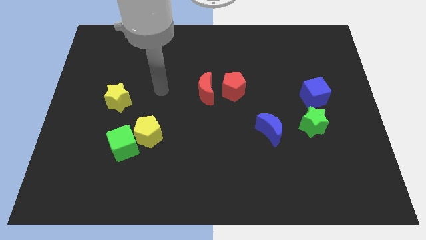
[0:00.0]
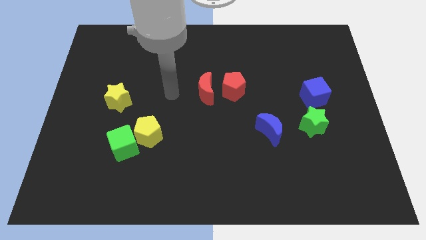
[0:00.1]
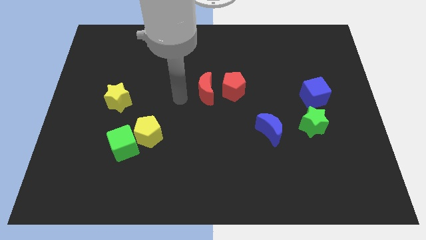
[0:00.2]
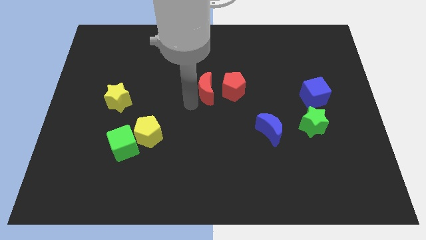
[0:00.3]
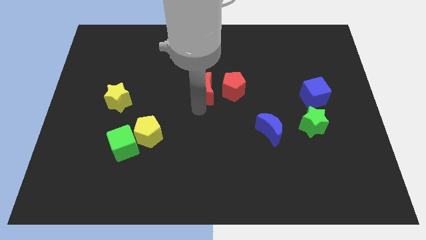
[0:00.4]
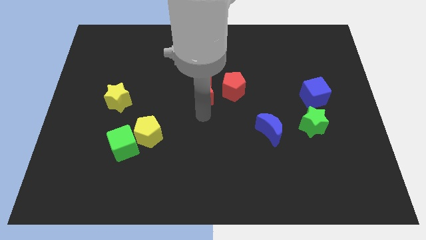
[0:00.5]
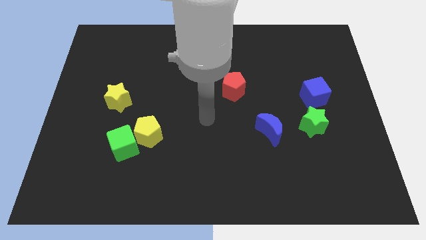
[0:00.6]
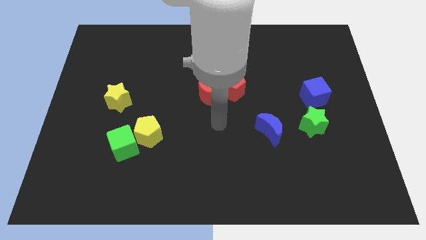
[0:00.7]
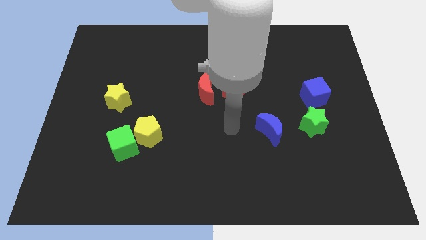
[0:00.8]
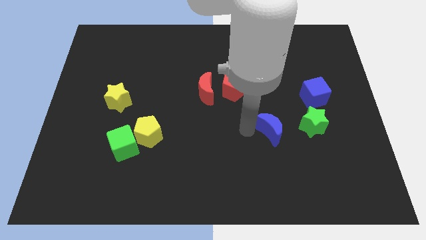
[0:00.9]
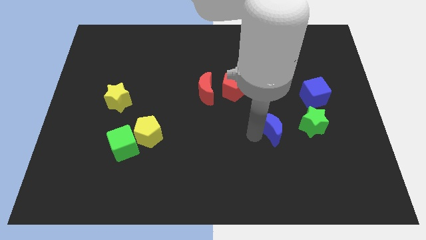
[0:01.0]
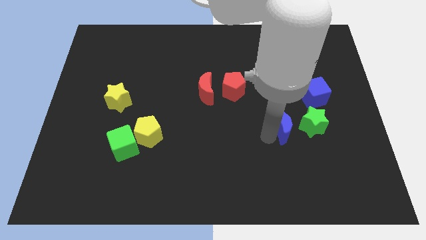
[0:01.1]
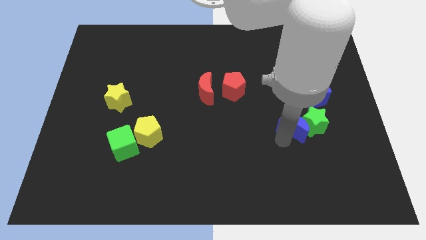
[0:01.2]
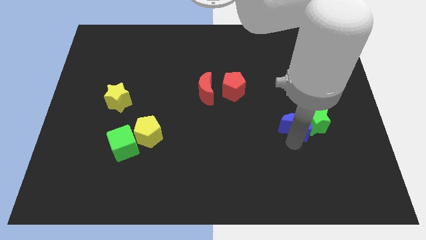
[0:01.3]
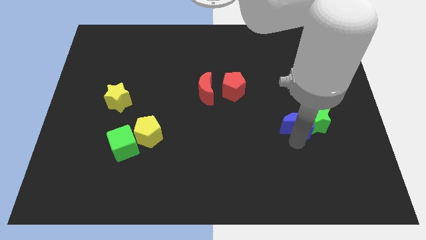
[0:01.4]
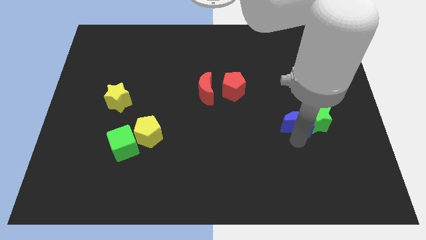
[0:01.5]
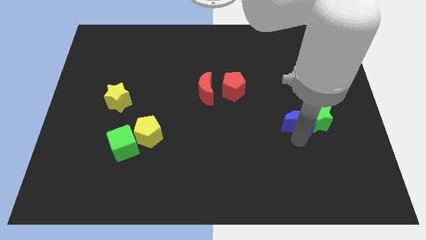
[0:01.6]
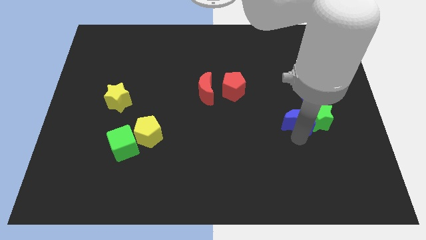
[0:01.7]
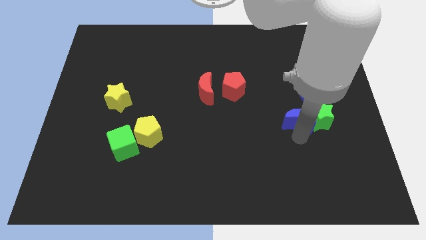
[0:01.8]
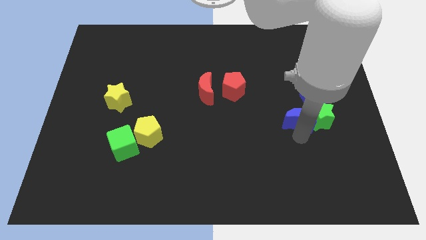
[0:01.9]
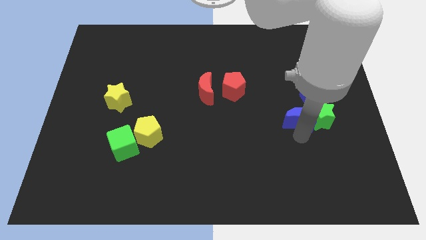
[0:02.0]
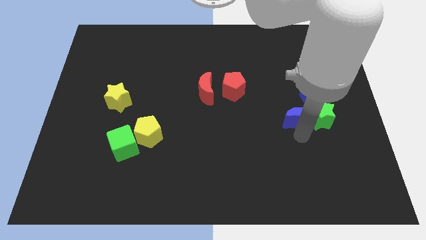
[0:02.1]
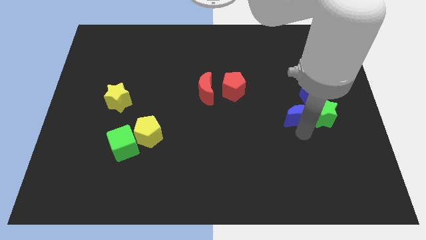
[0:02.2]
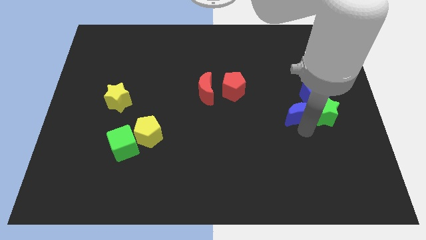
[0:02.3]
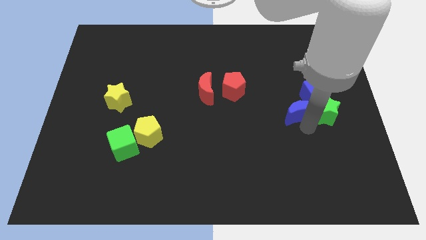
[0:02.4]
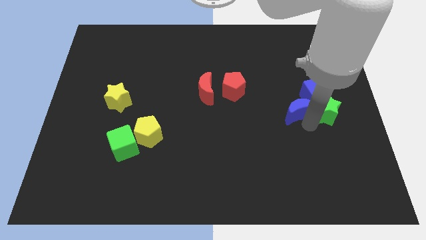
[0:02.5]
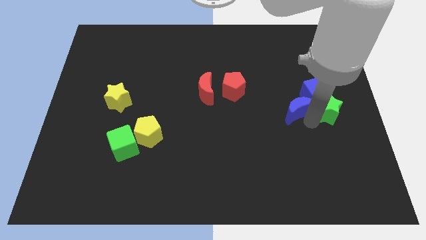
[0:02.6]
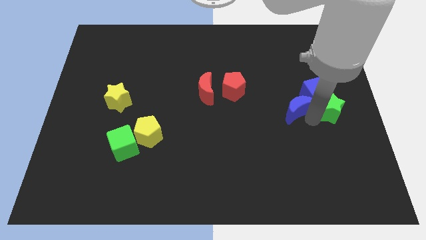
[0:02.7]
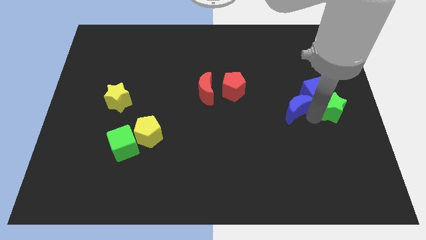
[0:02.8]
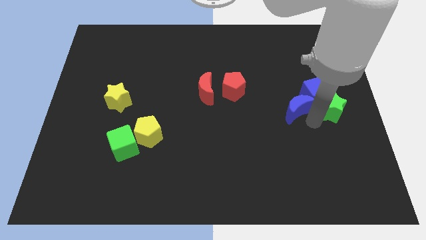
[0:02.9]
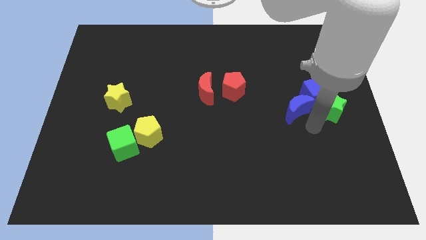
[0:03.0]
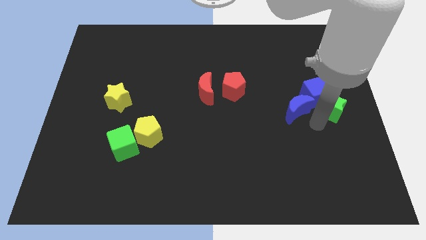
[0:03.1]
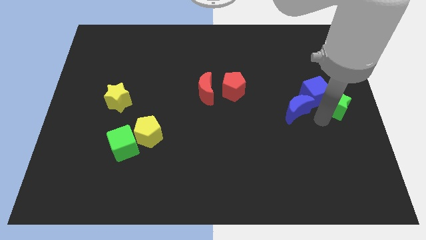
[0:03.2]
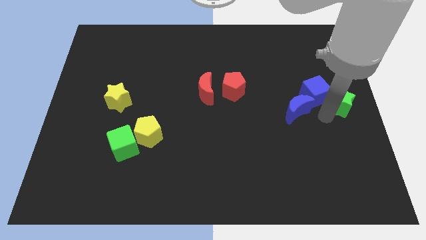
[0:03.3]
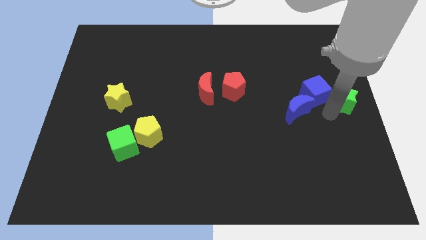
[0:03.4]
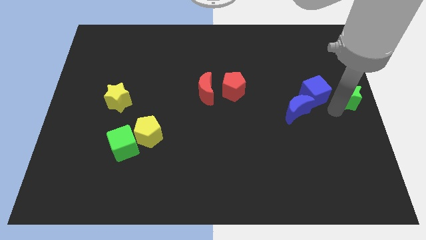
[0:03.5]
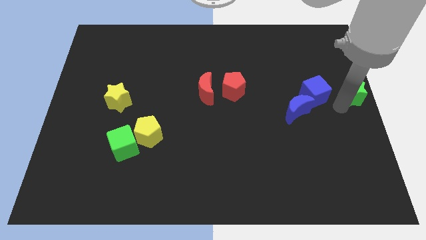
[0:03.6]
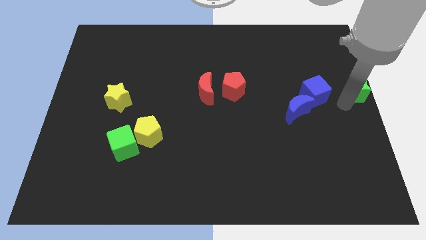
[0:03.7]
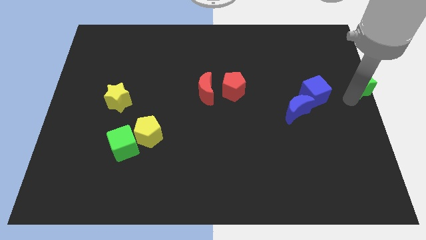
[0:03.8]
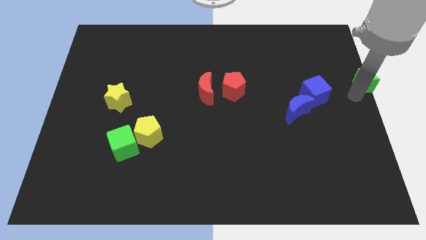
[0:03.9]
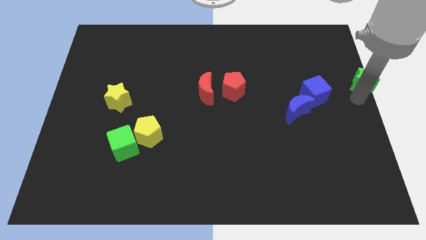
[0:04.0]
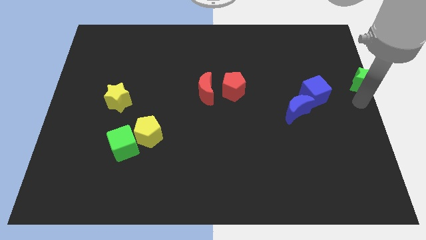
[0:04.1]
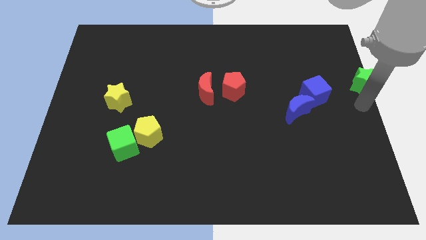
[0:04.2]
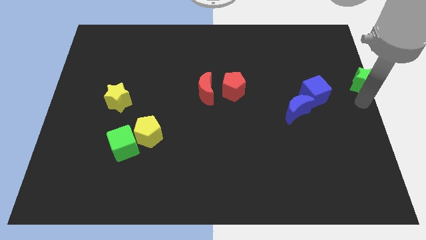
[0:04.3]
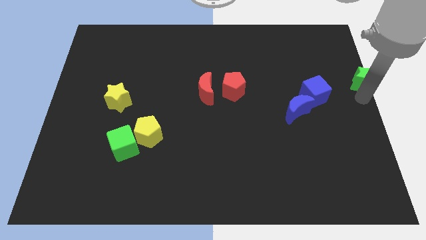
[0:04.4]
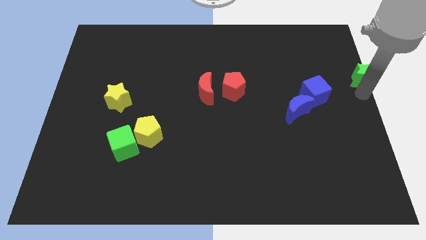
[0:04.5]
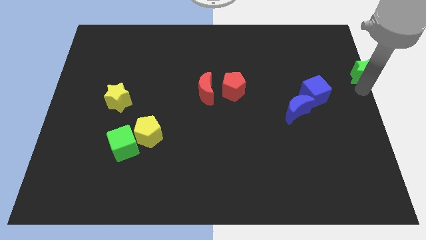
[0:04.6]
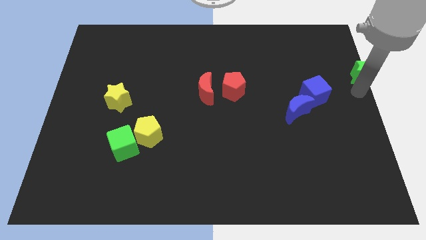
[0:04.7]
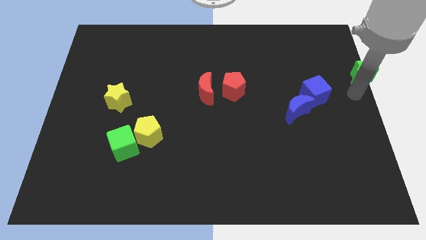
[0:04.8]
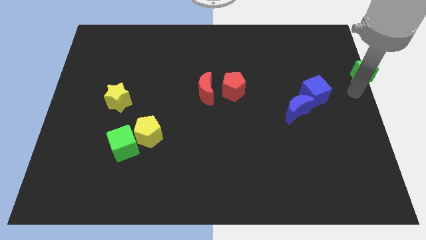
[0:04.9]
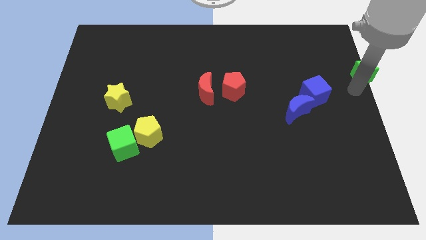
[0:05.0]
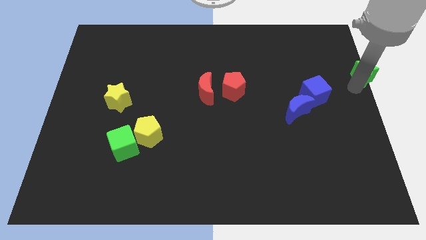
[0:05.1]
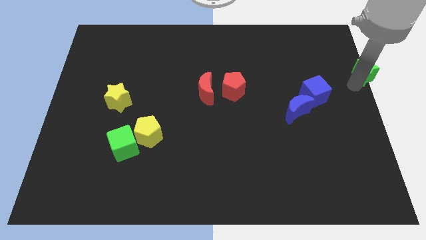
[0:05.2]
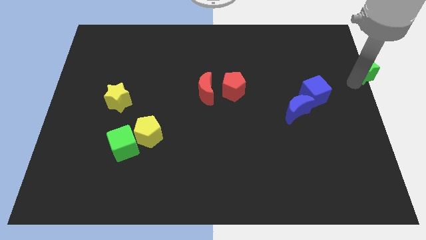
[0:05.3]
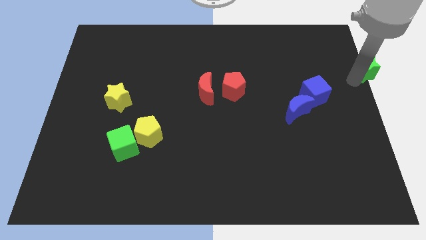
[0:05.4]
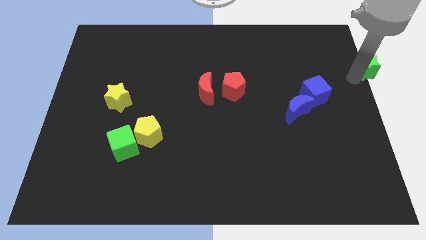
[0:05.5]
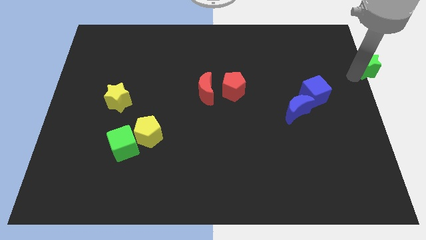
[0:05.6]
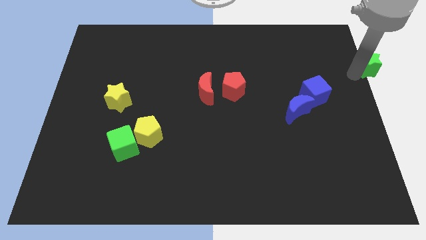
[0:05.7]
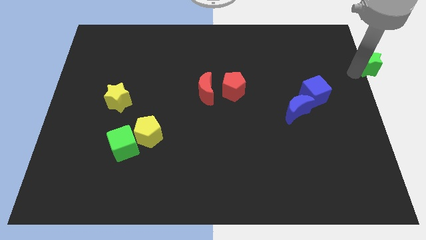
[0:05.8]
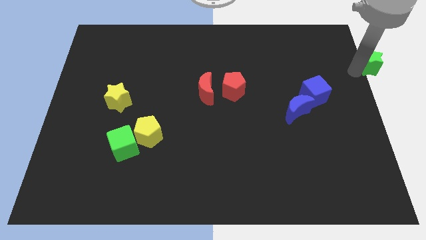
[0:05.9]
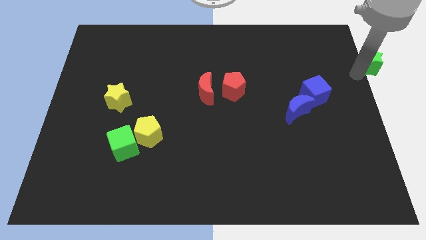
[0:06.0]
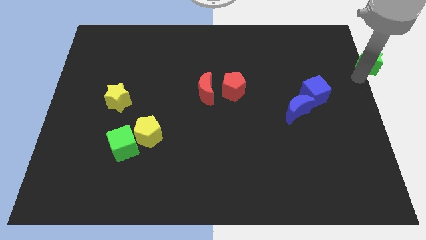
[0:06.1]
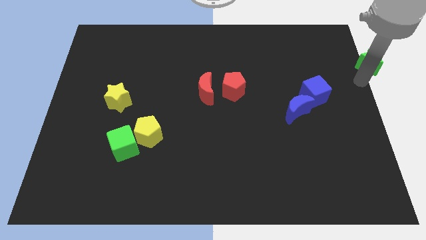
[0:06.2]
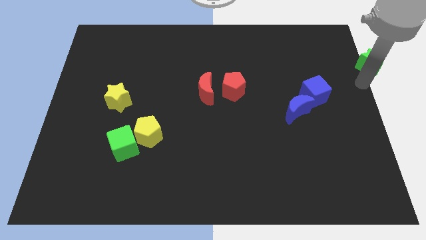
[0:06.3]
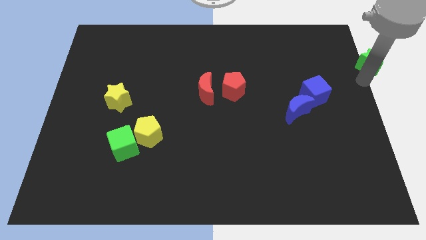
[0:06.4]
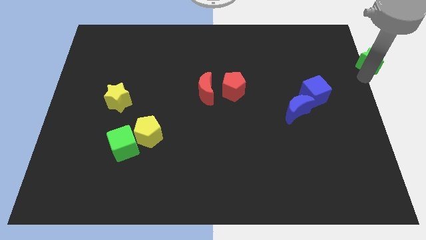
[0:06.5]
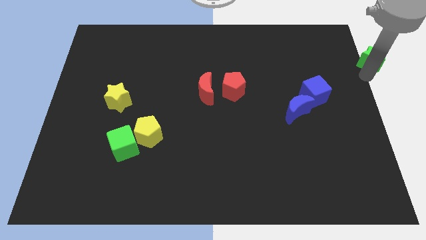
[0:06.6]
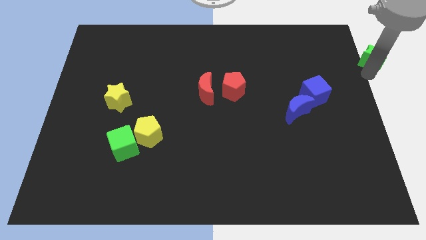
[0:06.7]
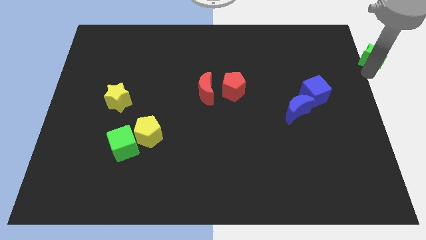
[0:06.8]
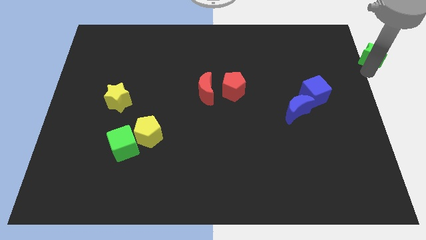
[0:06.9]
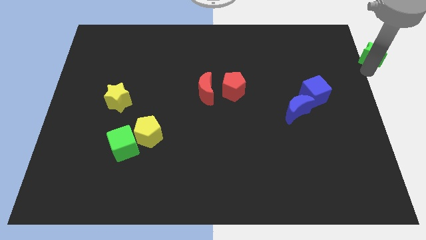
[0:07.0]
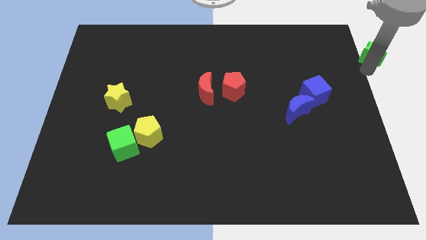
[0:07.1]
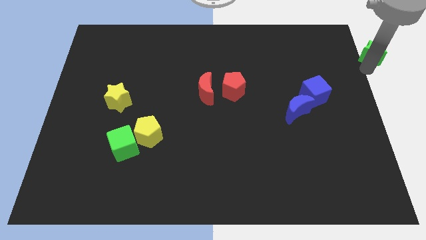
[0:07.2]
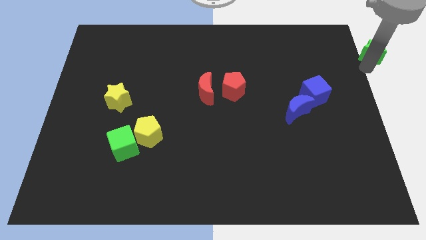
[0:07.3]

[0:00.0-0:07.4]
push the green star to the upper right corner
